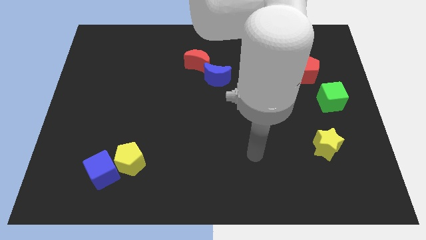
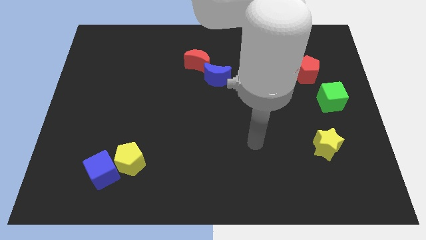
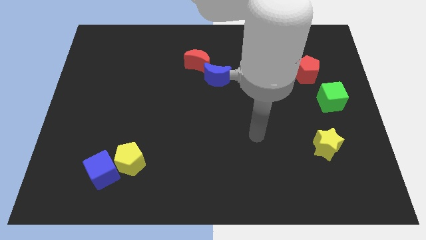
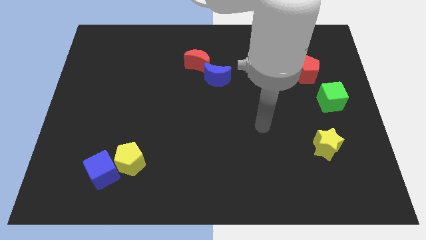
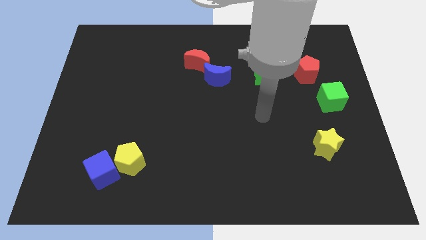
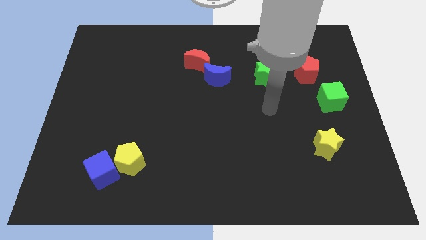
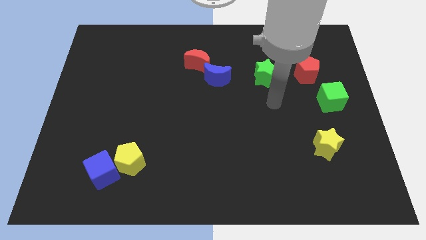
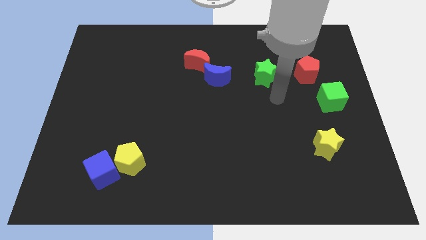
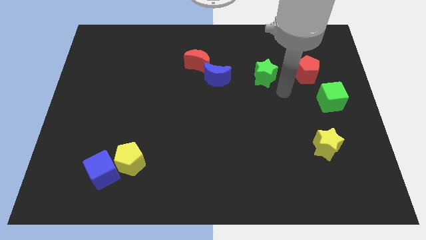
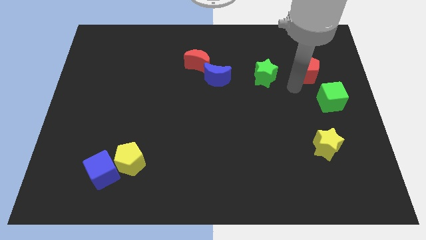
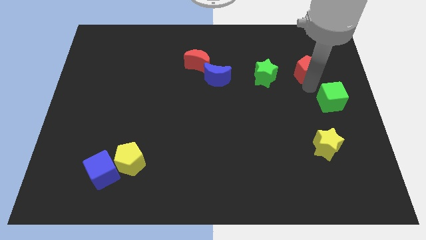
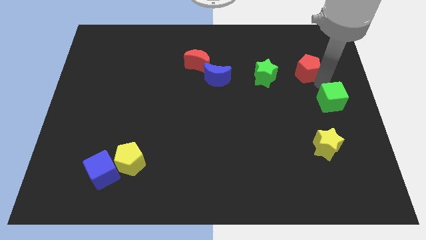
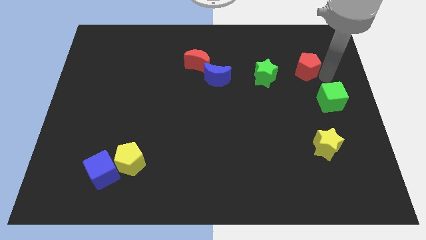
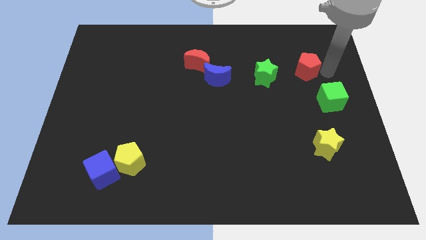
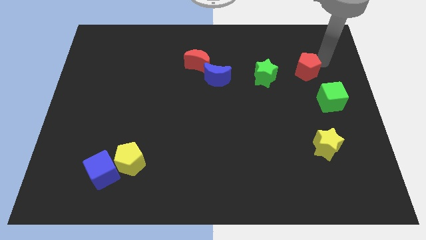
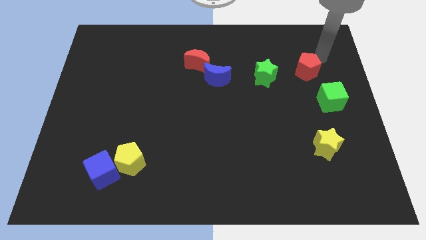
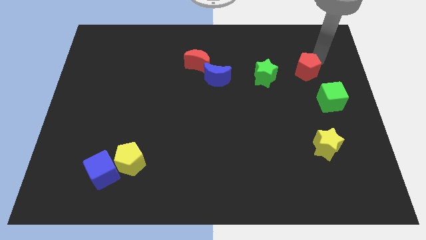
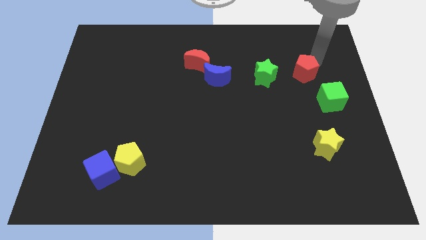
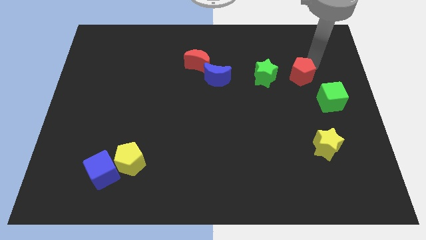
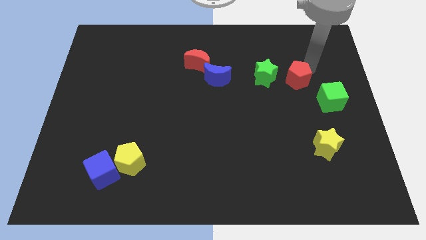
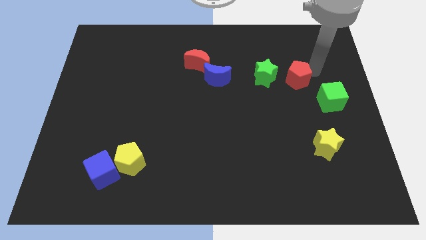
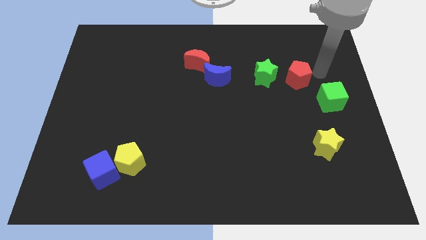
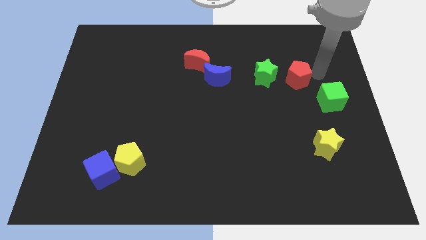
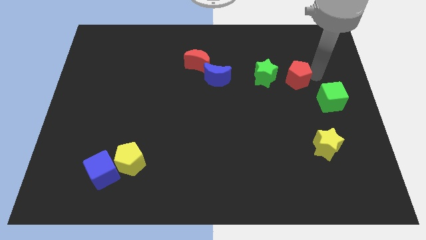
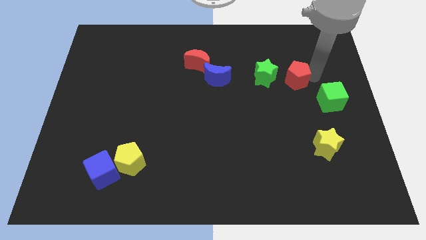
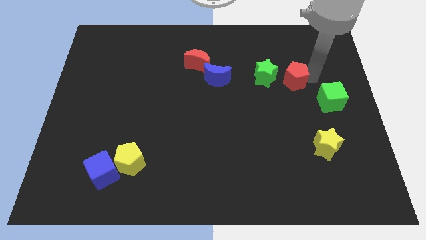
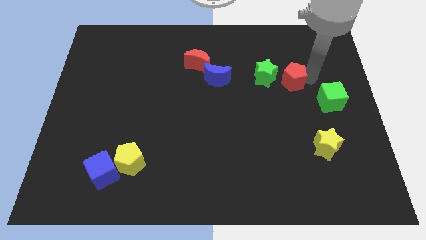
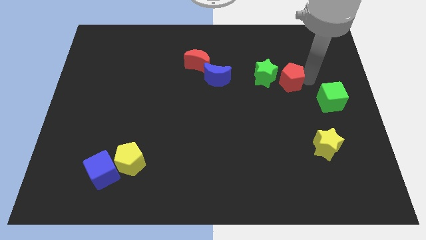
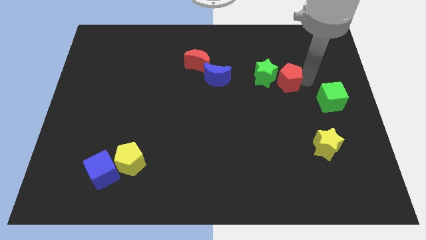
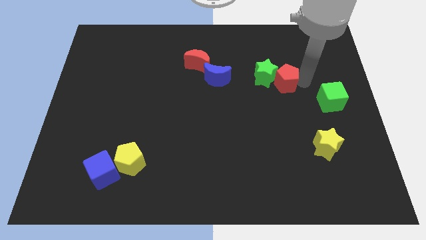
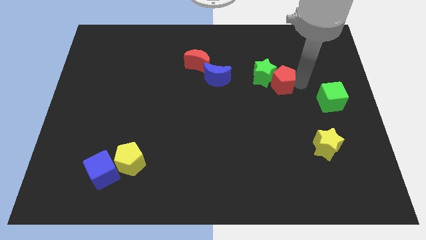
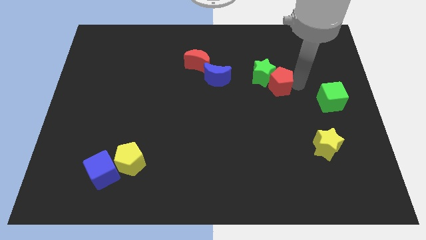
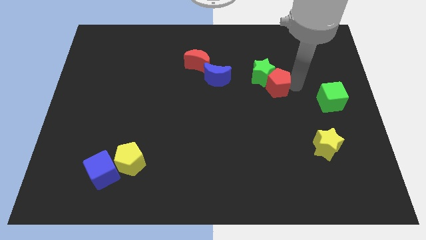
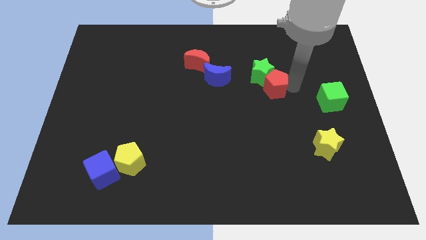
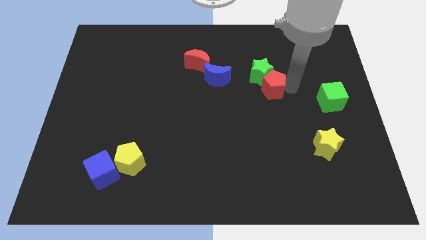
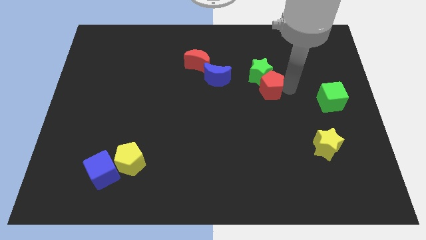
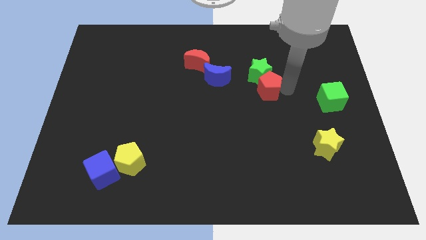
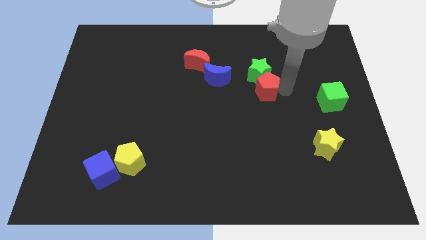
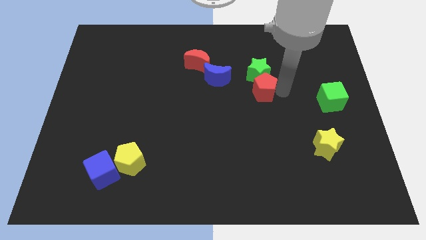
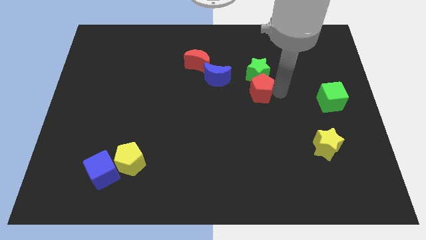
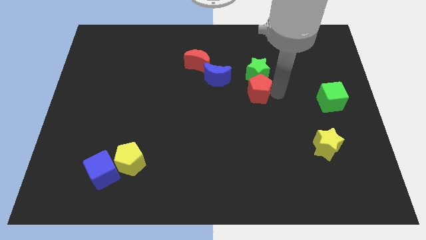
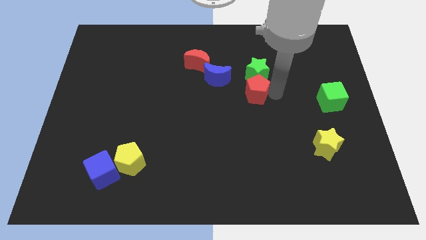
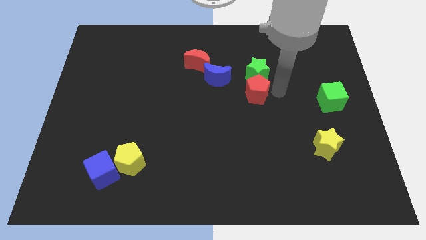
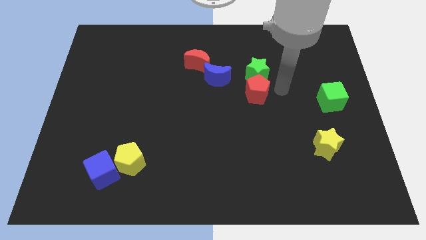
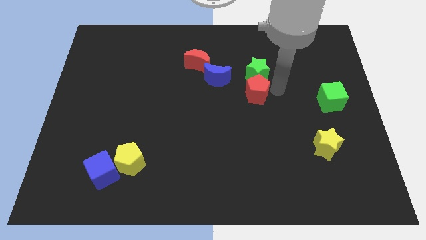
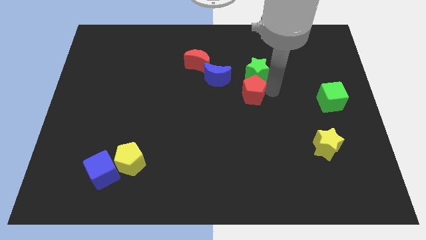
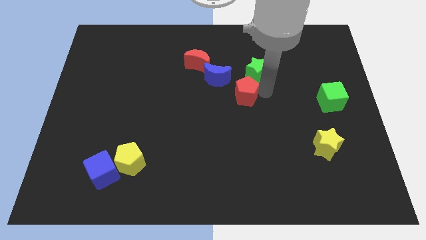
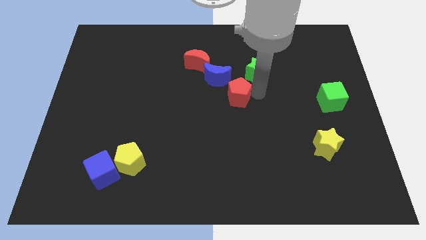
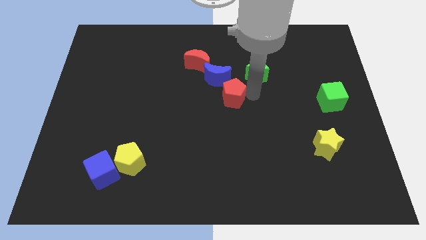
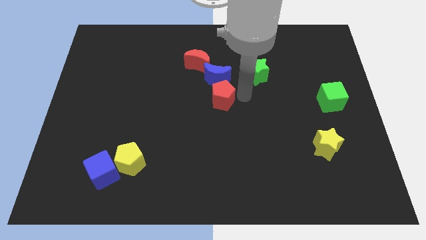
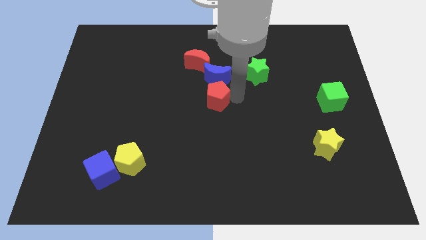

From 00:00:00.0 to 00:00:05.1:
slide the red pentagon below the red moon

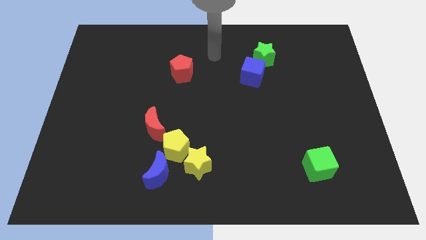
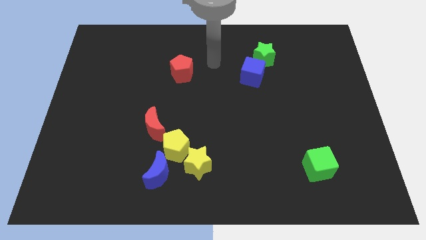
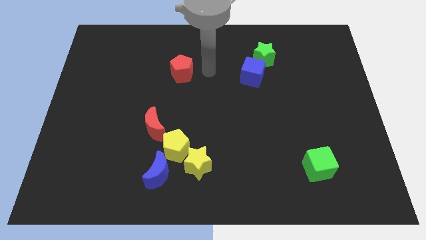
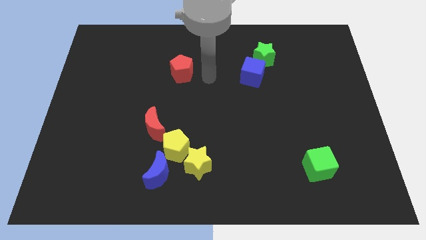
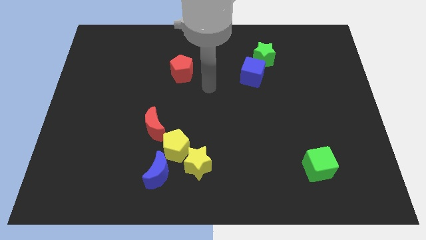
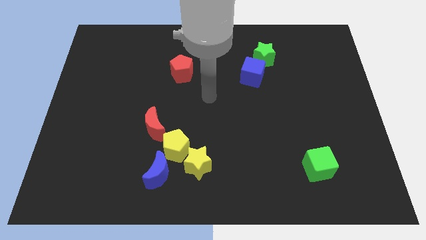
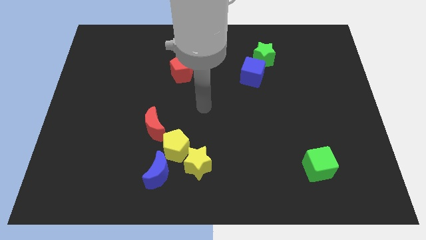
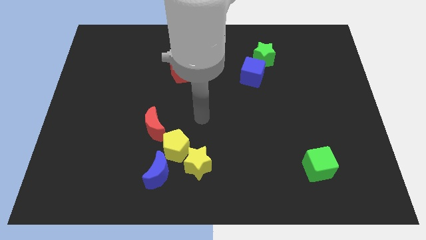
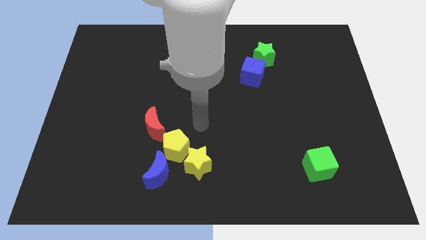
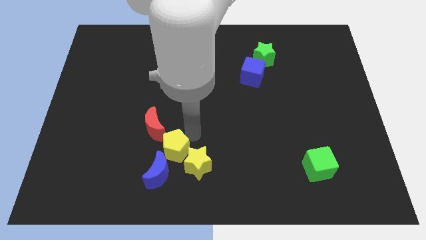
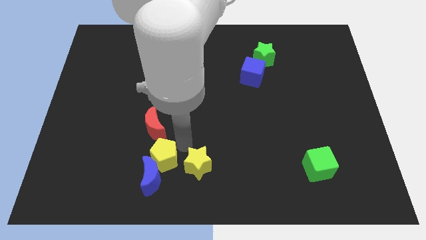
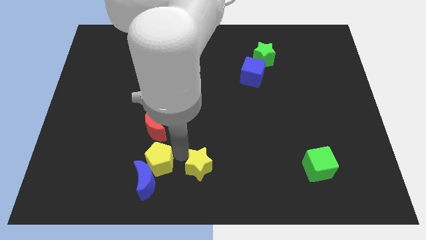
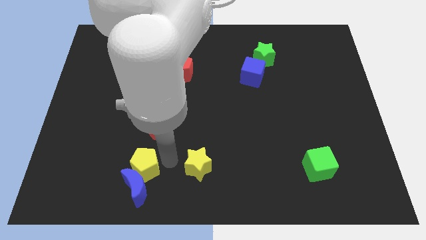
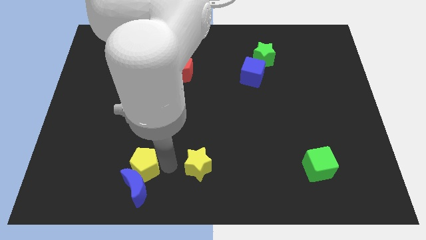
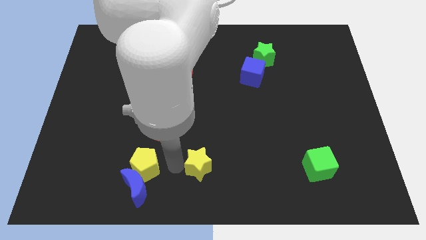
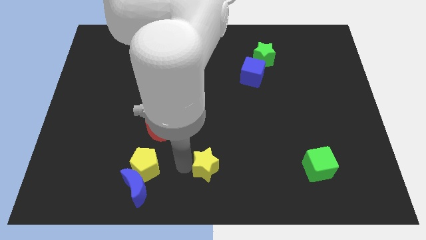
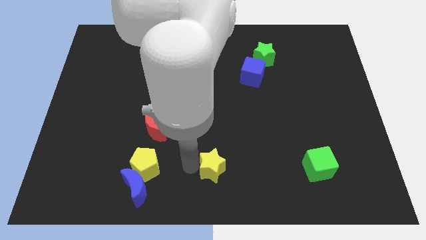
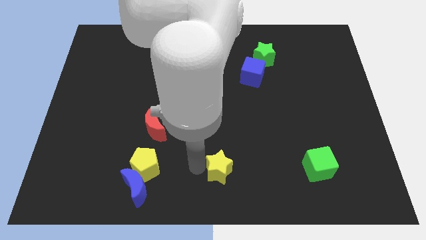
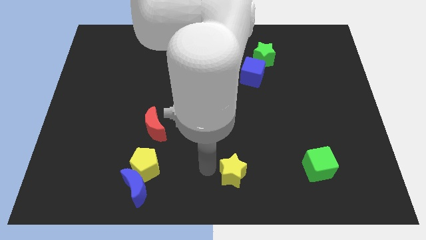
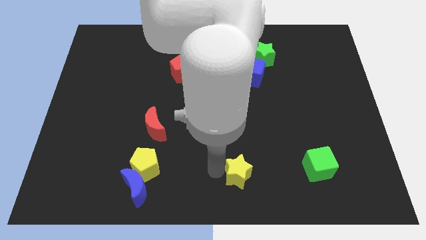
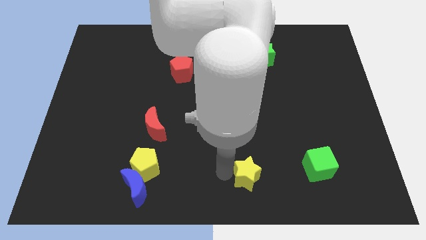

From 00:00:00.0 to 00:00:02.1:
put the yellow star to the left side of the green cube
